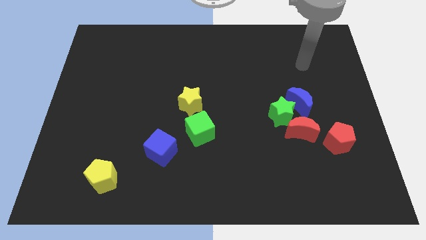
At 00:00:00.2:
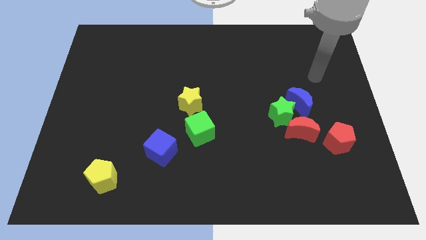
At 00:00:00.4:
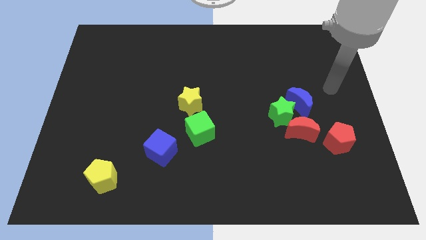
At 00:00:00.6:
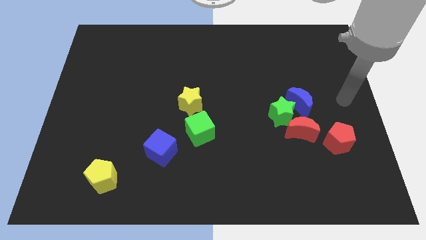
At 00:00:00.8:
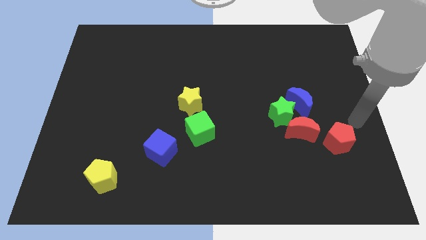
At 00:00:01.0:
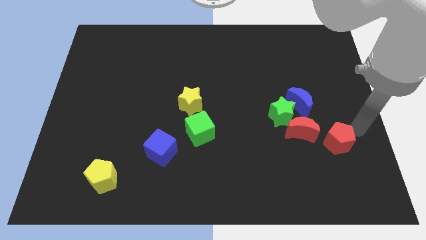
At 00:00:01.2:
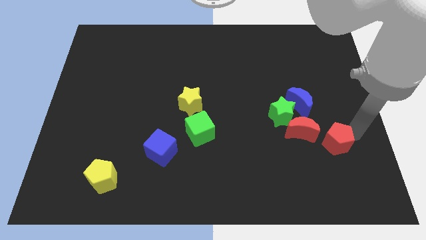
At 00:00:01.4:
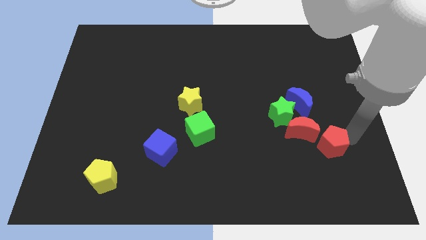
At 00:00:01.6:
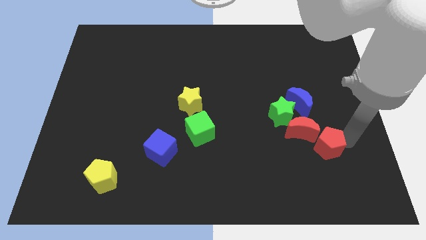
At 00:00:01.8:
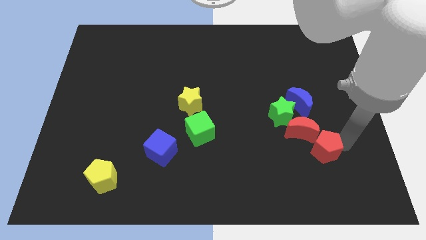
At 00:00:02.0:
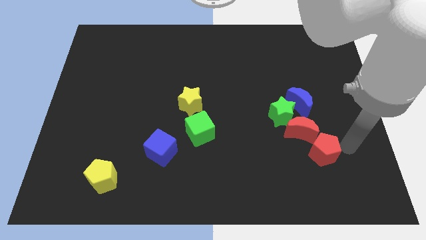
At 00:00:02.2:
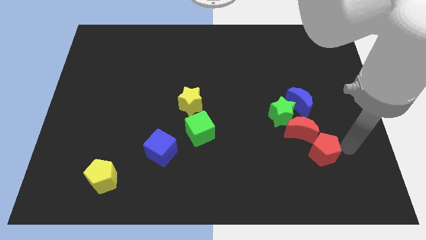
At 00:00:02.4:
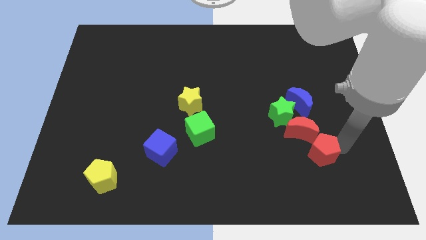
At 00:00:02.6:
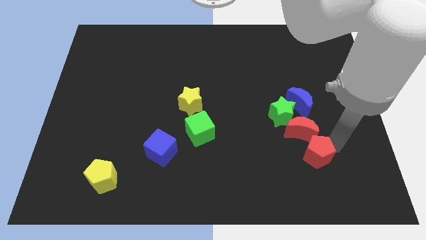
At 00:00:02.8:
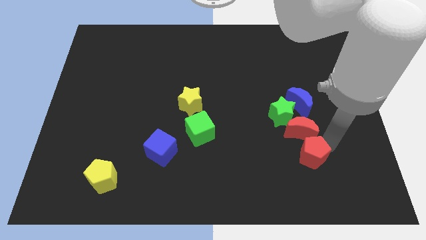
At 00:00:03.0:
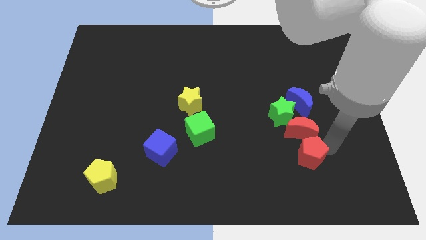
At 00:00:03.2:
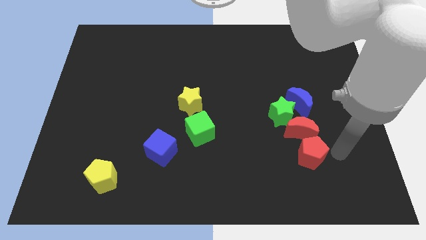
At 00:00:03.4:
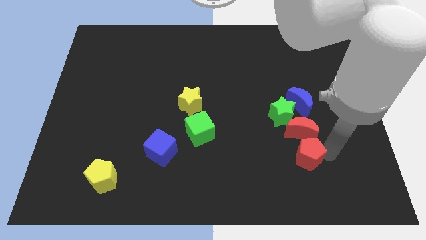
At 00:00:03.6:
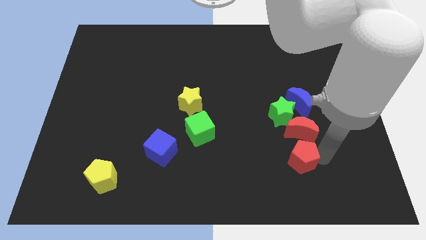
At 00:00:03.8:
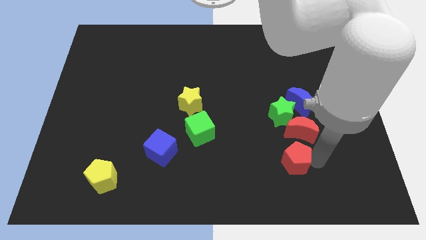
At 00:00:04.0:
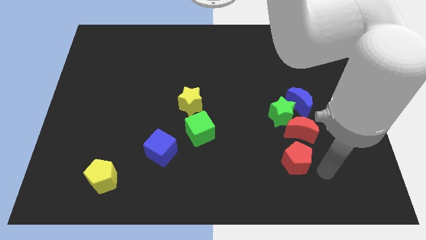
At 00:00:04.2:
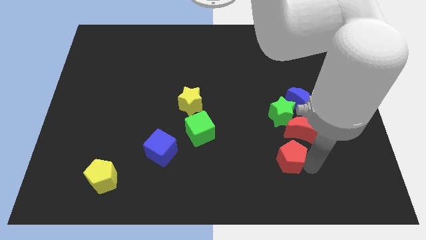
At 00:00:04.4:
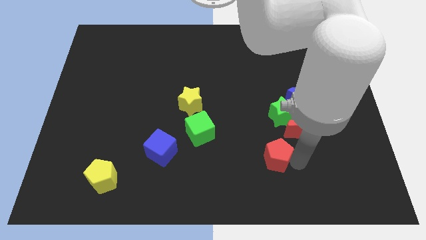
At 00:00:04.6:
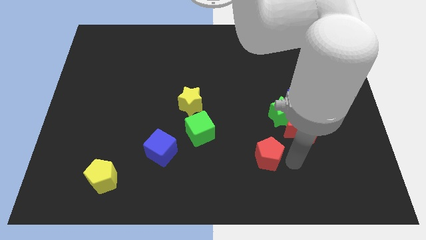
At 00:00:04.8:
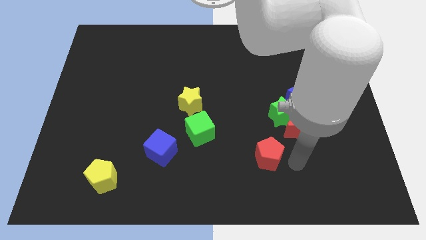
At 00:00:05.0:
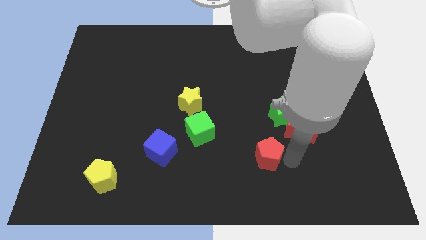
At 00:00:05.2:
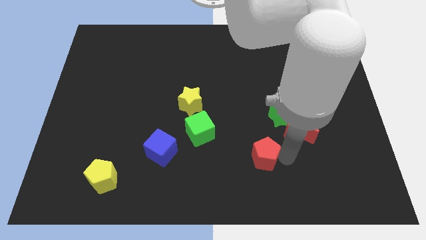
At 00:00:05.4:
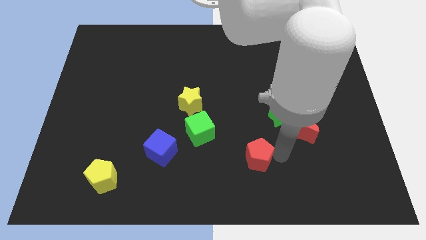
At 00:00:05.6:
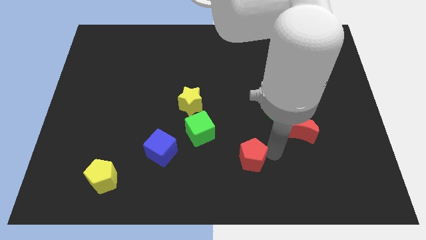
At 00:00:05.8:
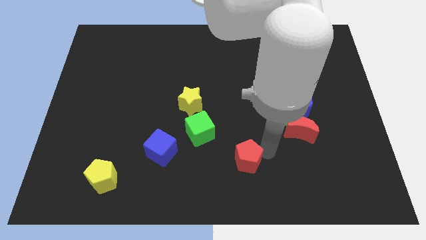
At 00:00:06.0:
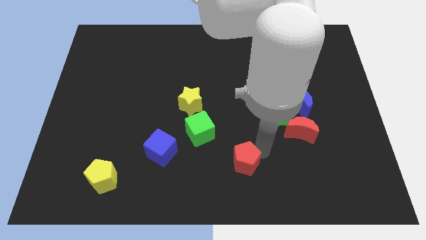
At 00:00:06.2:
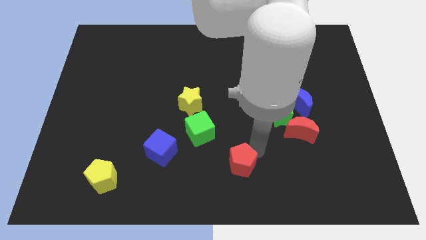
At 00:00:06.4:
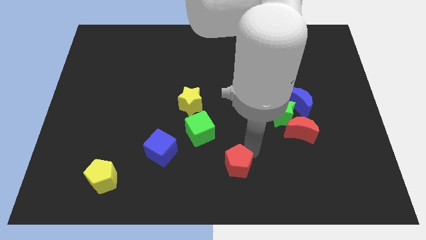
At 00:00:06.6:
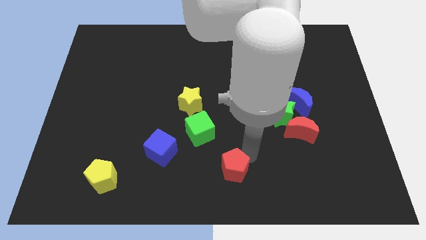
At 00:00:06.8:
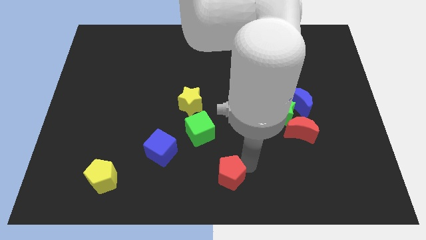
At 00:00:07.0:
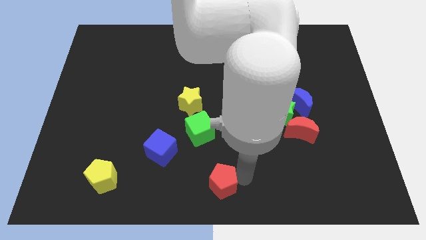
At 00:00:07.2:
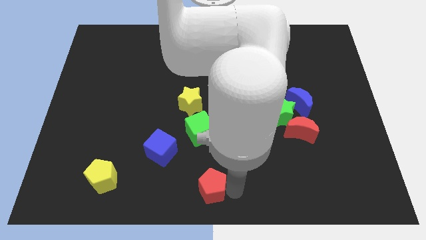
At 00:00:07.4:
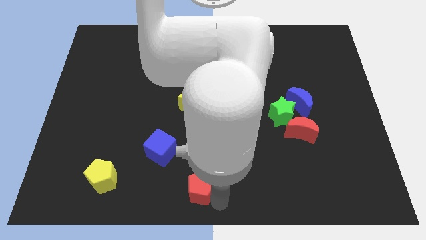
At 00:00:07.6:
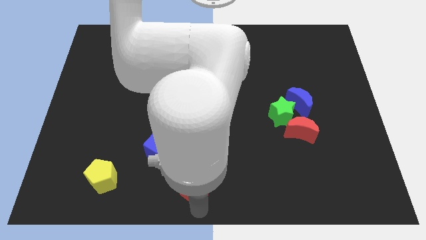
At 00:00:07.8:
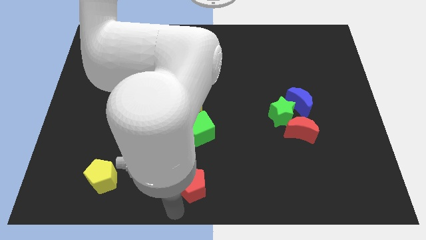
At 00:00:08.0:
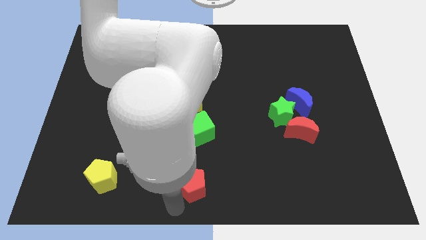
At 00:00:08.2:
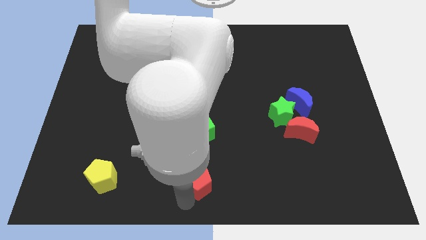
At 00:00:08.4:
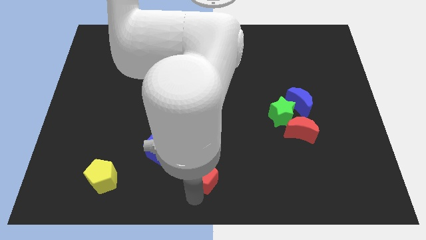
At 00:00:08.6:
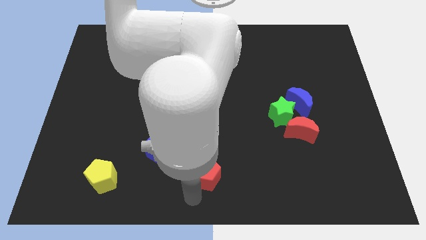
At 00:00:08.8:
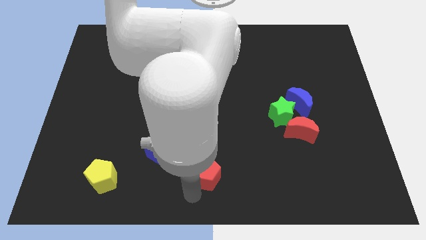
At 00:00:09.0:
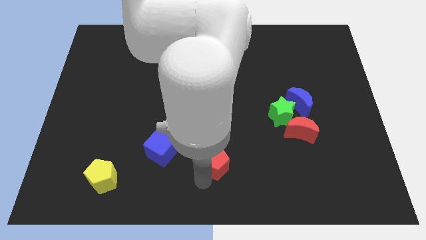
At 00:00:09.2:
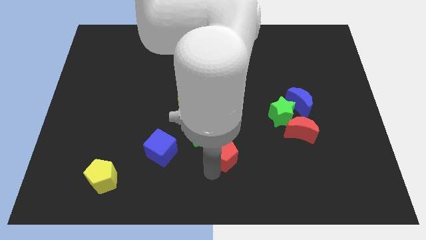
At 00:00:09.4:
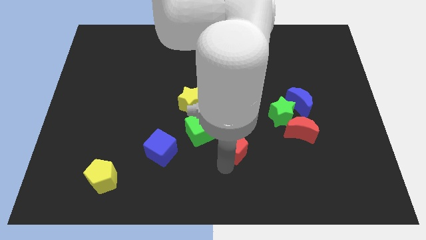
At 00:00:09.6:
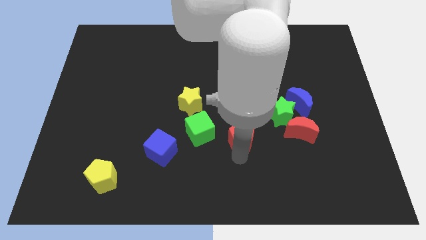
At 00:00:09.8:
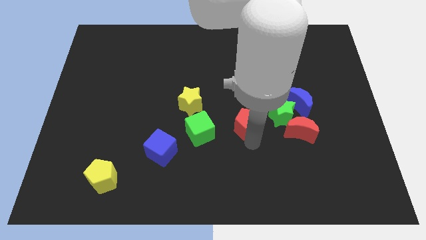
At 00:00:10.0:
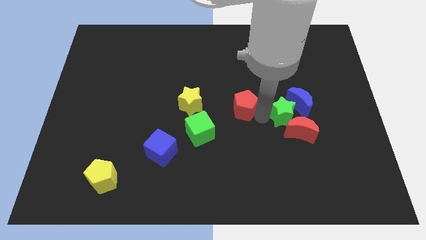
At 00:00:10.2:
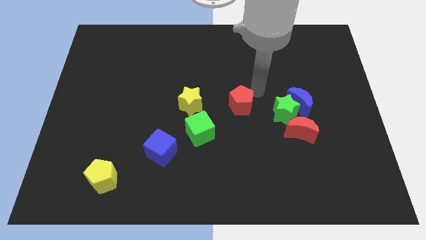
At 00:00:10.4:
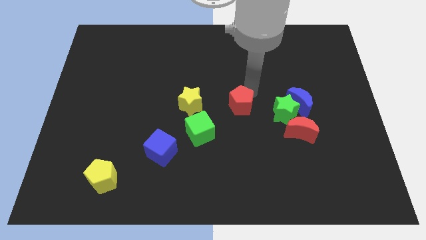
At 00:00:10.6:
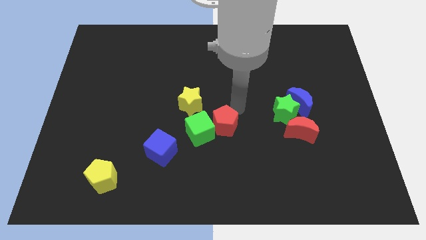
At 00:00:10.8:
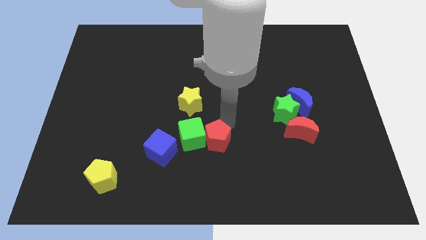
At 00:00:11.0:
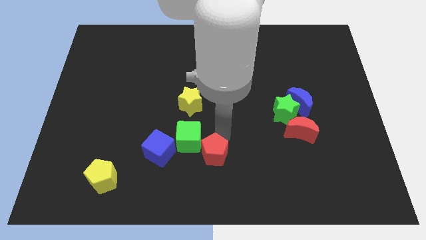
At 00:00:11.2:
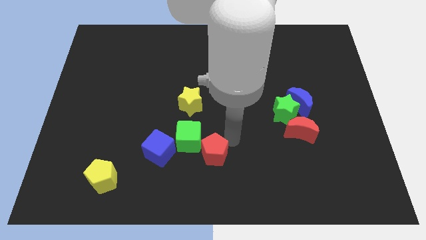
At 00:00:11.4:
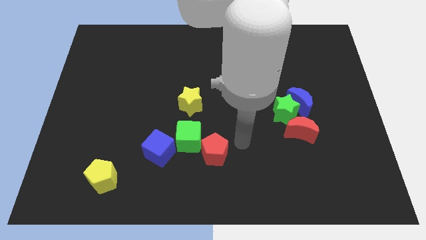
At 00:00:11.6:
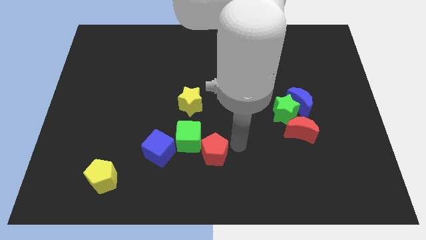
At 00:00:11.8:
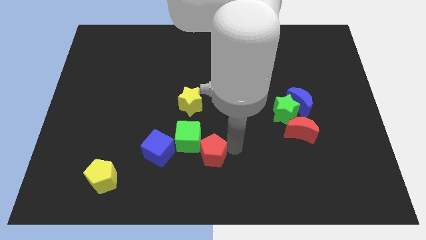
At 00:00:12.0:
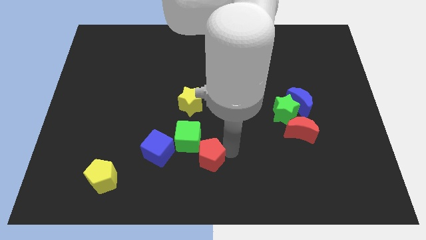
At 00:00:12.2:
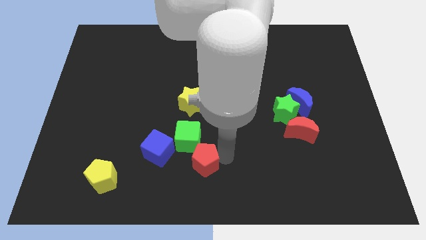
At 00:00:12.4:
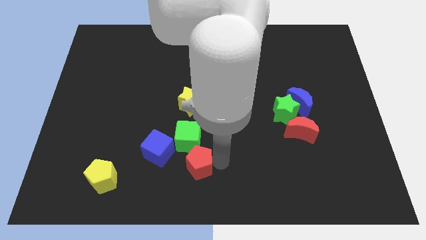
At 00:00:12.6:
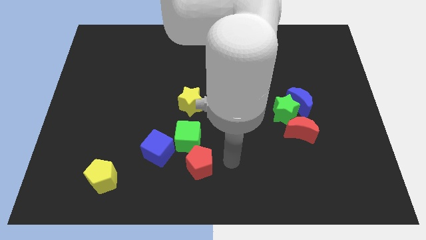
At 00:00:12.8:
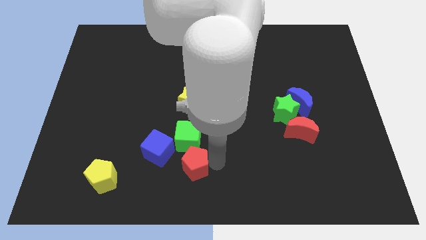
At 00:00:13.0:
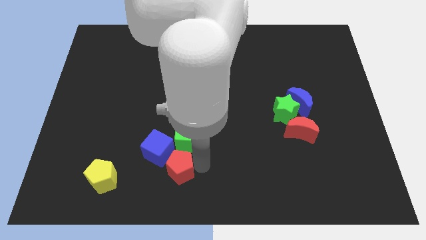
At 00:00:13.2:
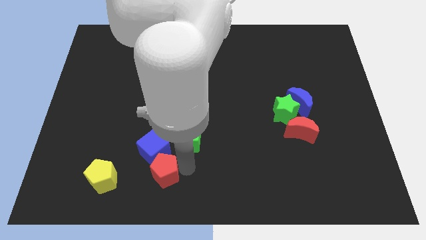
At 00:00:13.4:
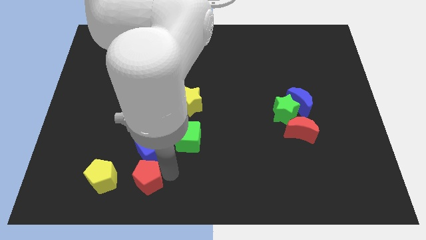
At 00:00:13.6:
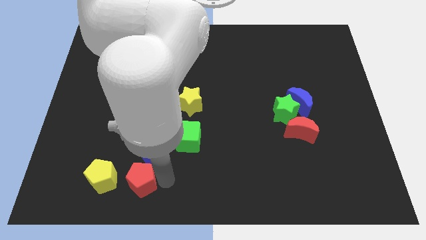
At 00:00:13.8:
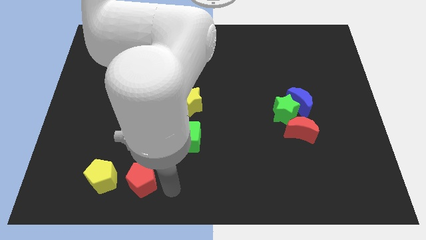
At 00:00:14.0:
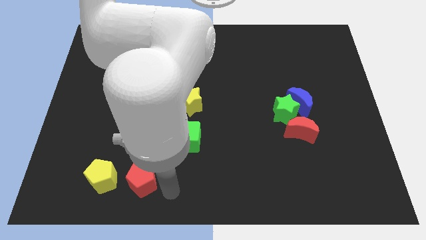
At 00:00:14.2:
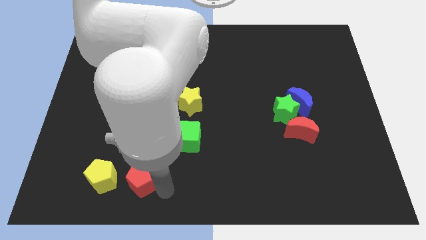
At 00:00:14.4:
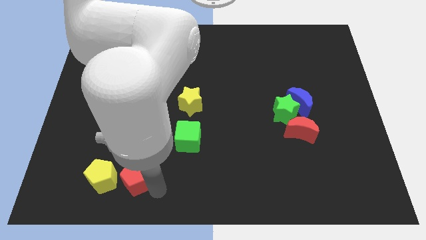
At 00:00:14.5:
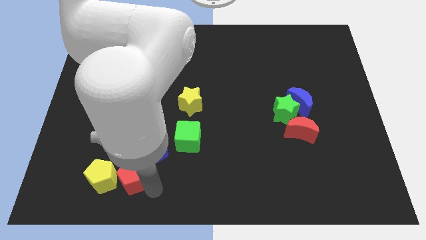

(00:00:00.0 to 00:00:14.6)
move the red pentagon close to the yellow pentagon
